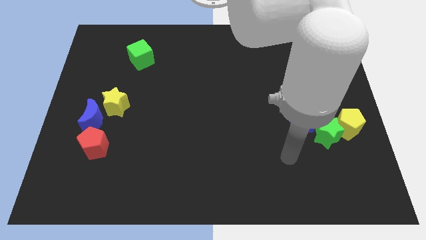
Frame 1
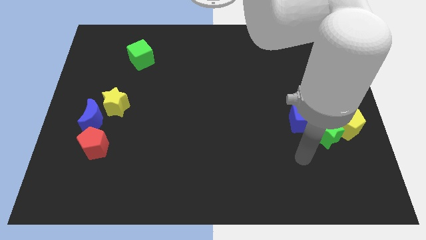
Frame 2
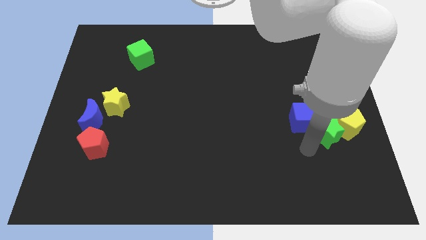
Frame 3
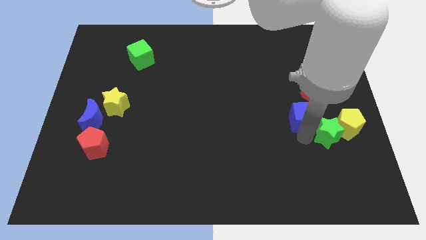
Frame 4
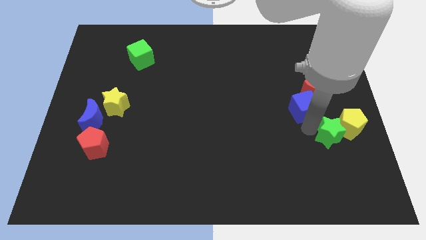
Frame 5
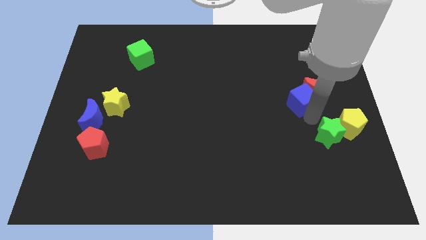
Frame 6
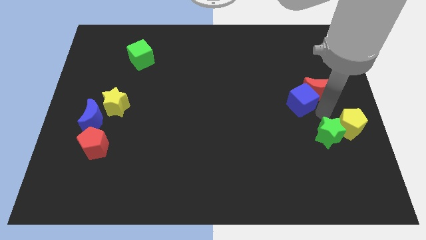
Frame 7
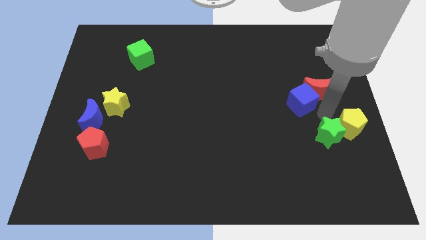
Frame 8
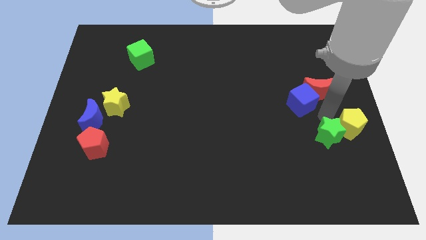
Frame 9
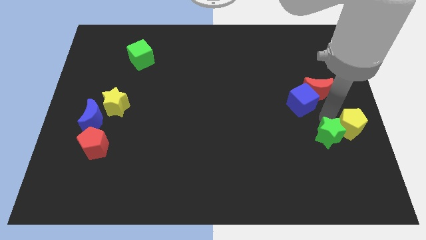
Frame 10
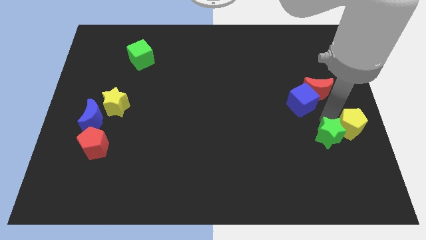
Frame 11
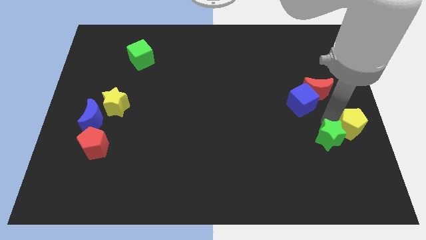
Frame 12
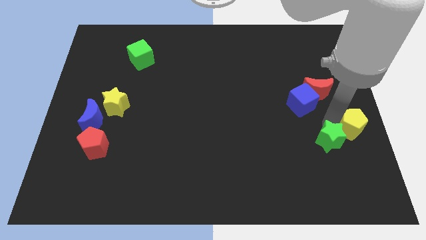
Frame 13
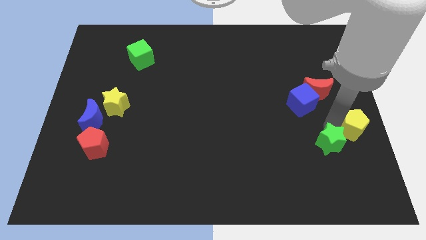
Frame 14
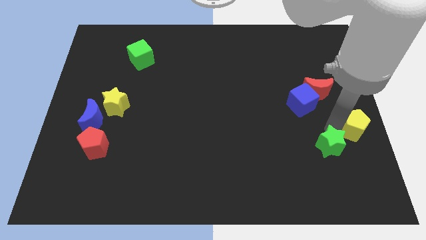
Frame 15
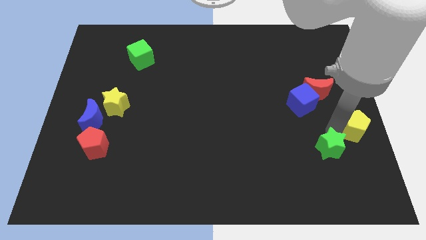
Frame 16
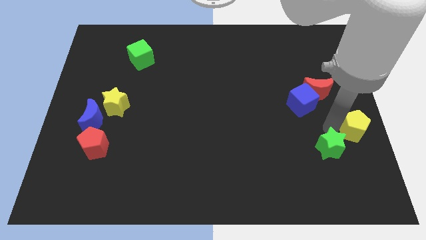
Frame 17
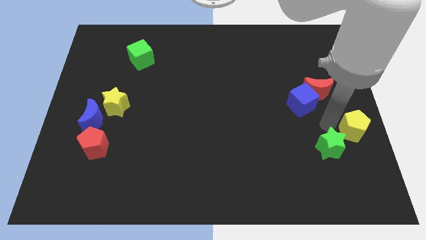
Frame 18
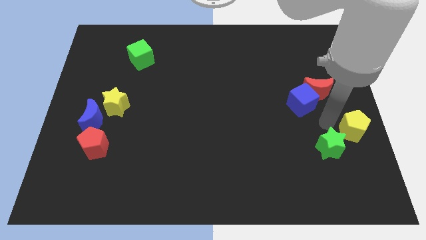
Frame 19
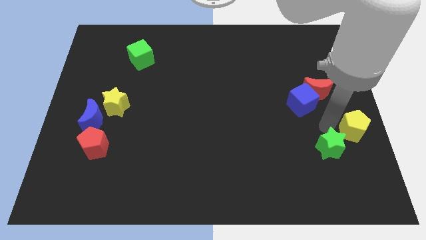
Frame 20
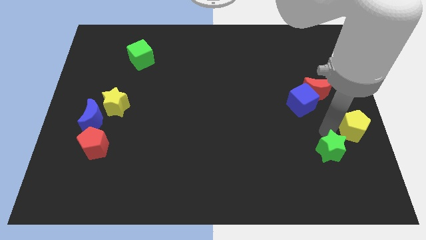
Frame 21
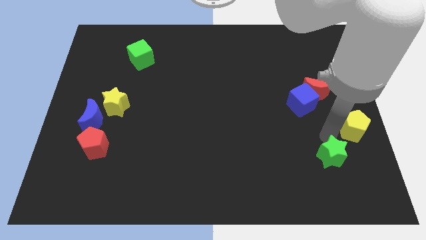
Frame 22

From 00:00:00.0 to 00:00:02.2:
pull the green star apart from the yellow pentagon and blue cube

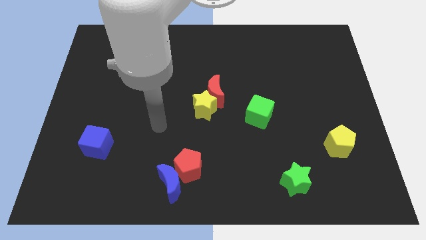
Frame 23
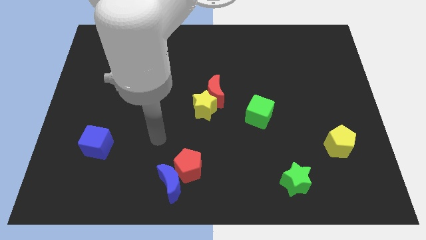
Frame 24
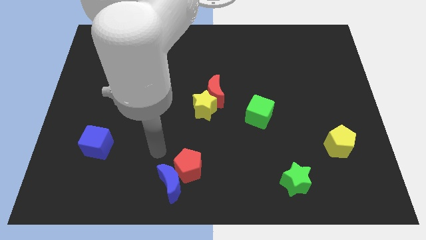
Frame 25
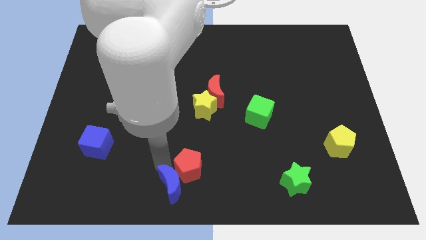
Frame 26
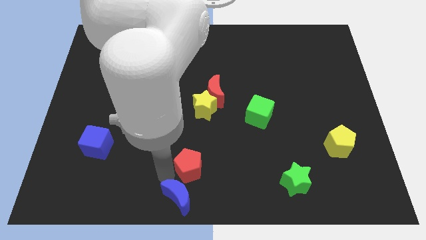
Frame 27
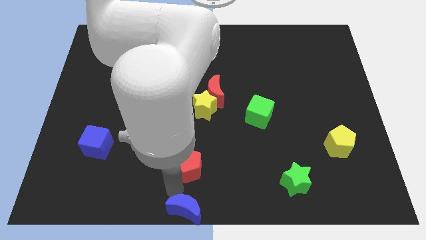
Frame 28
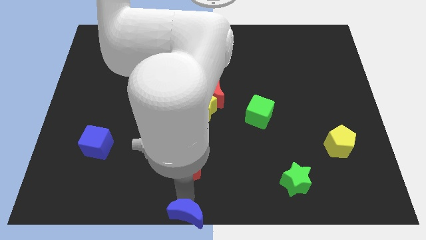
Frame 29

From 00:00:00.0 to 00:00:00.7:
pull the red pentagon apart from the blue moon

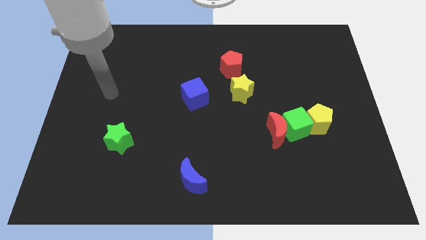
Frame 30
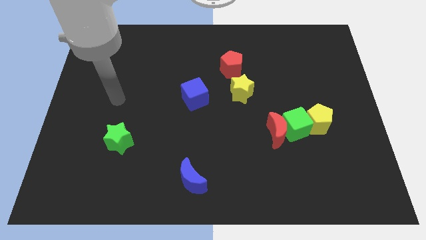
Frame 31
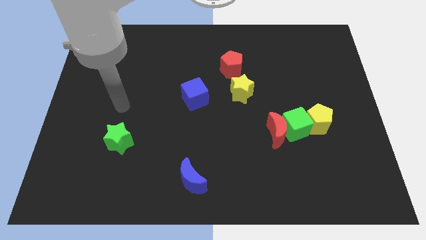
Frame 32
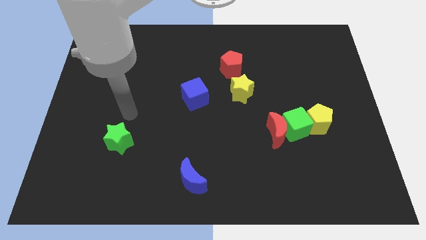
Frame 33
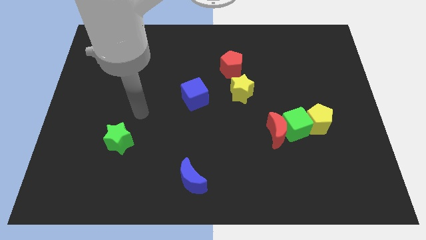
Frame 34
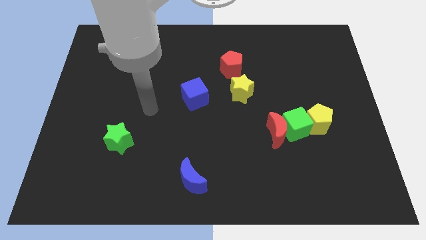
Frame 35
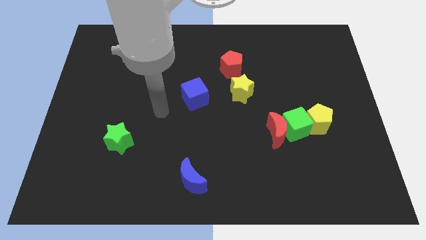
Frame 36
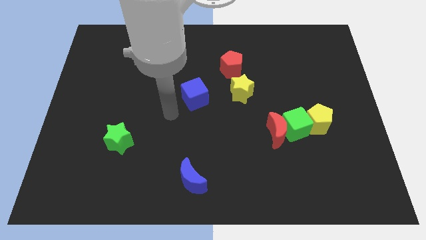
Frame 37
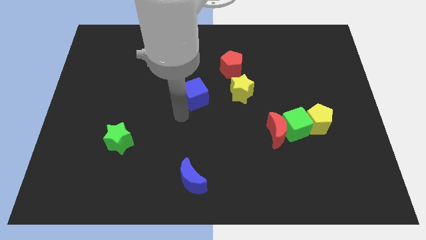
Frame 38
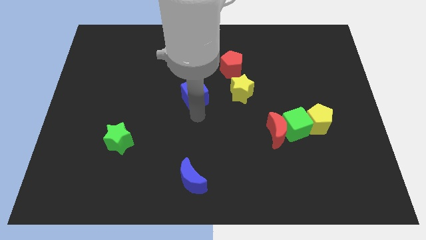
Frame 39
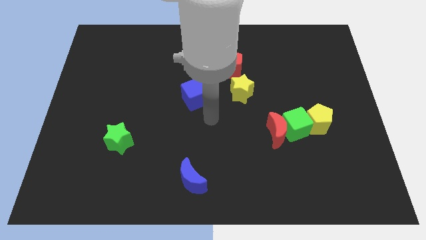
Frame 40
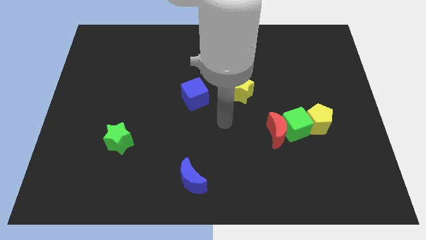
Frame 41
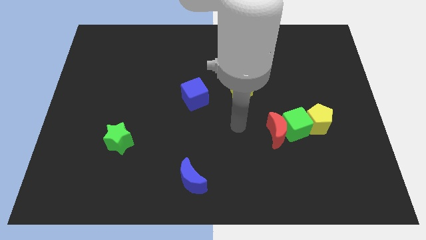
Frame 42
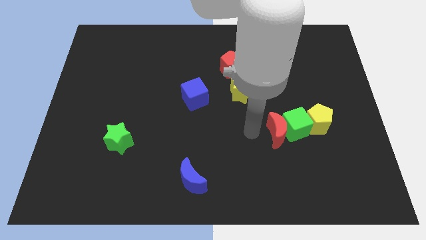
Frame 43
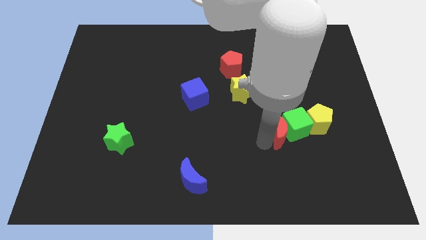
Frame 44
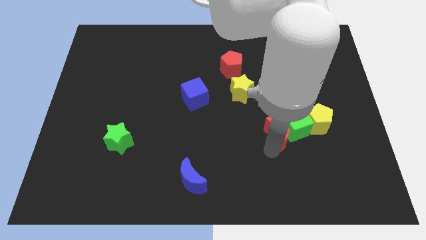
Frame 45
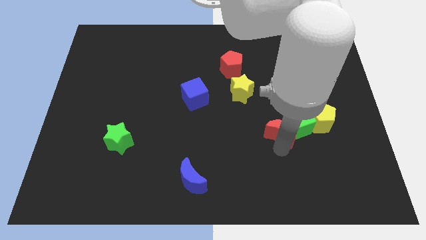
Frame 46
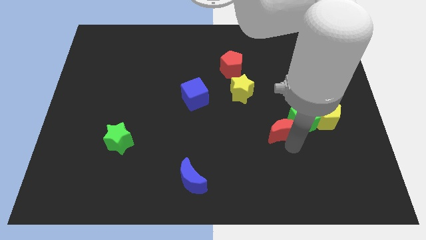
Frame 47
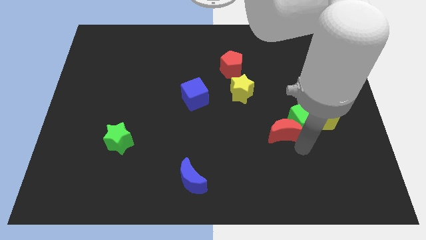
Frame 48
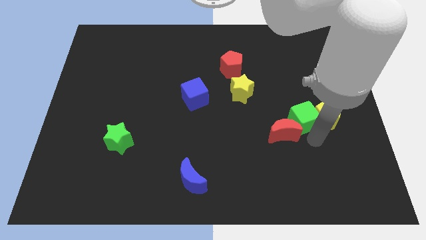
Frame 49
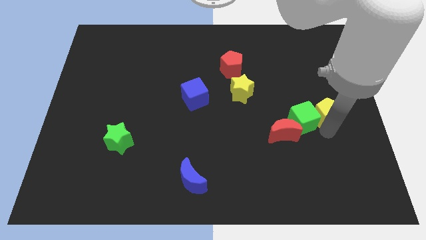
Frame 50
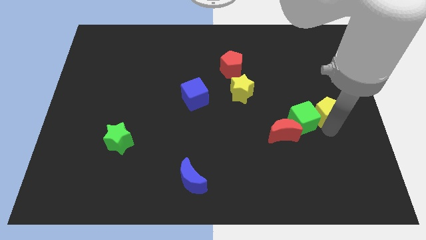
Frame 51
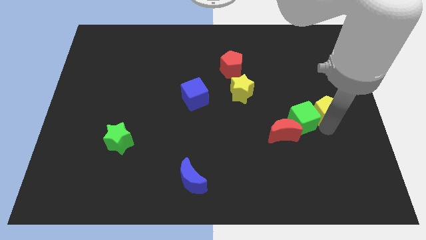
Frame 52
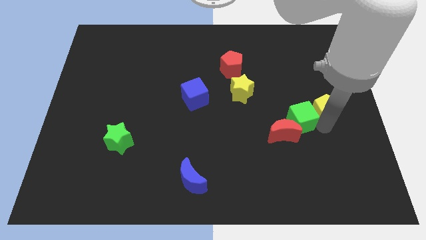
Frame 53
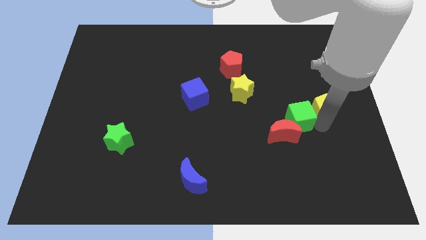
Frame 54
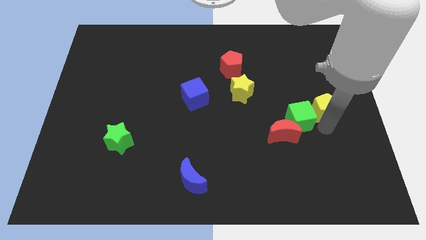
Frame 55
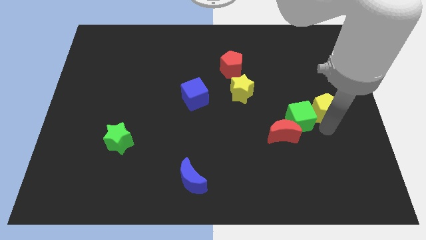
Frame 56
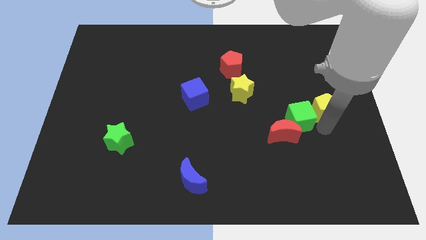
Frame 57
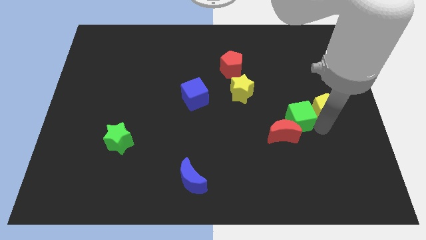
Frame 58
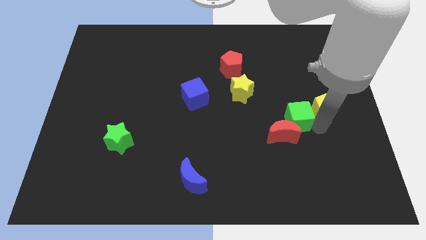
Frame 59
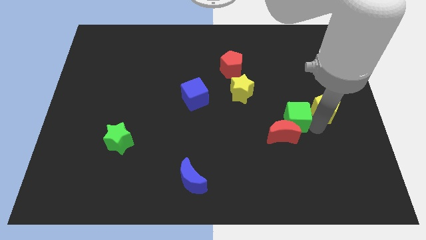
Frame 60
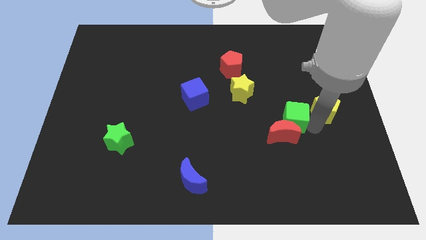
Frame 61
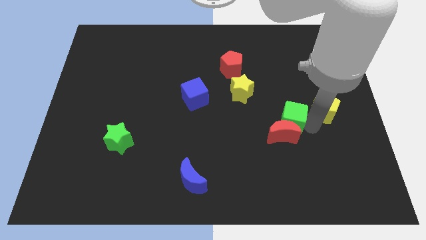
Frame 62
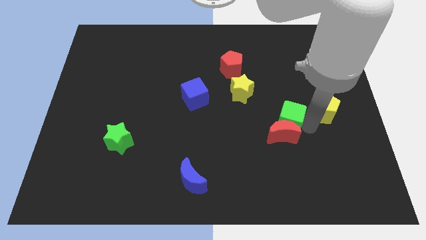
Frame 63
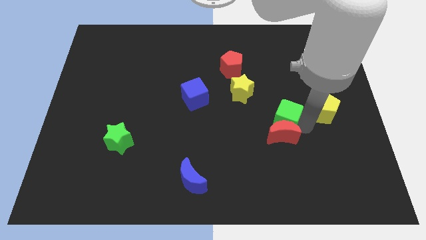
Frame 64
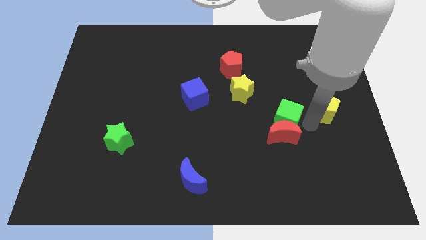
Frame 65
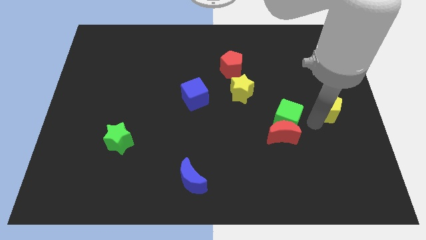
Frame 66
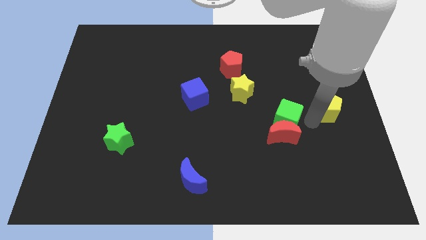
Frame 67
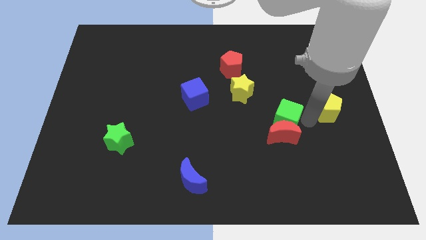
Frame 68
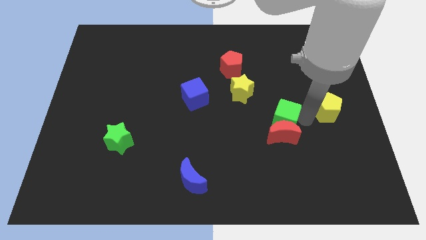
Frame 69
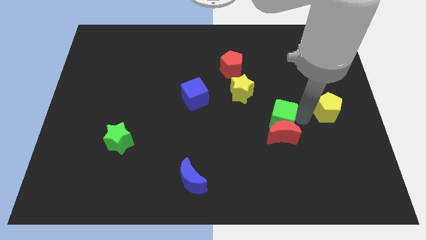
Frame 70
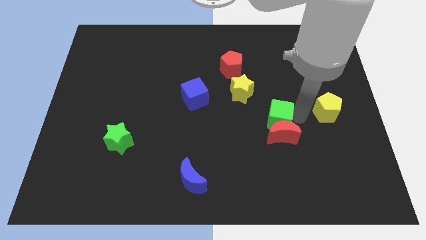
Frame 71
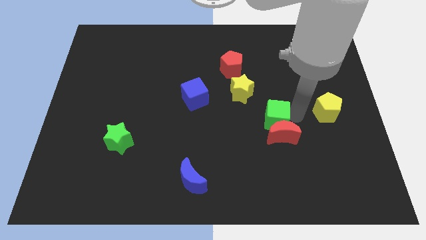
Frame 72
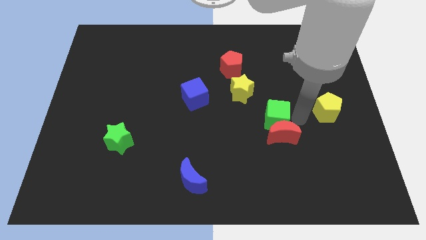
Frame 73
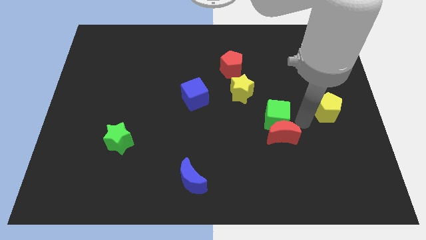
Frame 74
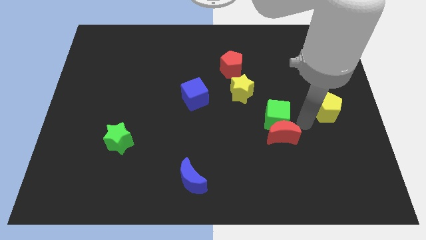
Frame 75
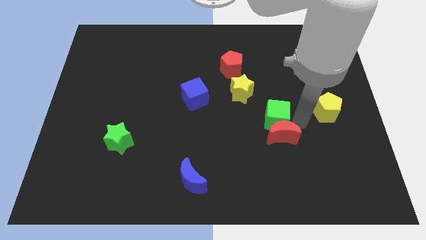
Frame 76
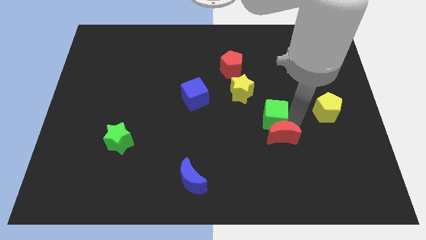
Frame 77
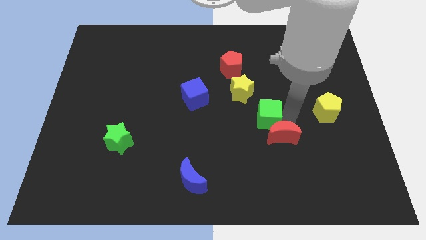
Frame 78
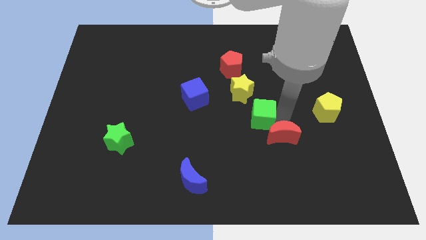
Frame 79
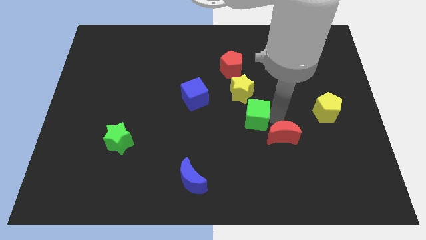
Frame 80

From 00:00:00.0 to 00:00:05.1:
move the green cube away from the red moon and yellow pentagon

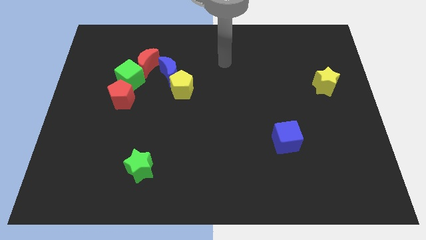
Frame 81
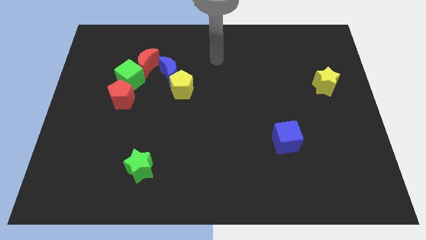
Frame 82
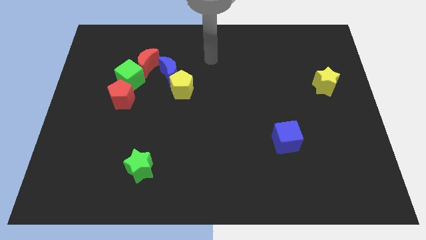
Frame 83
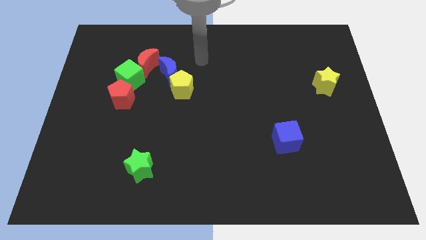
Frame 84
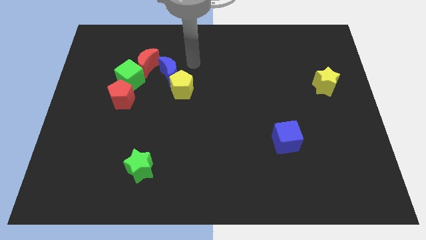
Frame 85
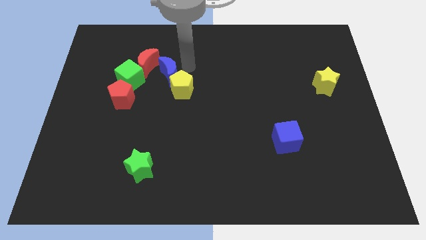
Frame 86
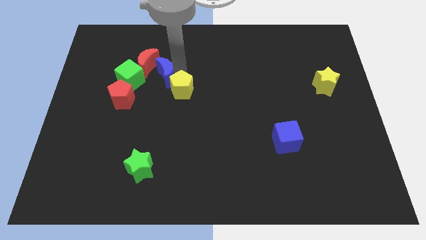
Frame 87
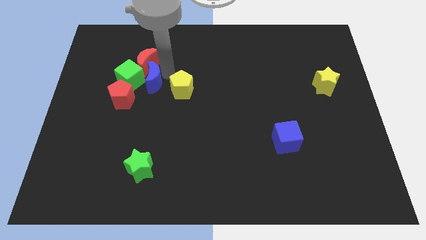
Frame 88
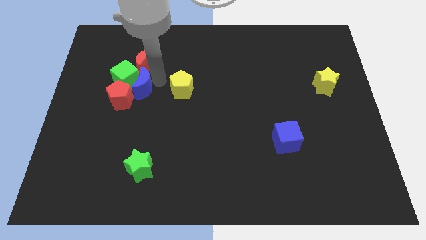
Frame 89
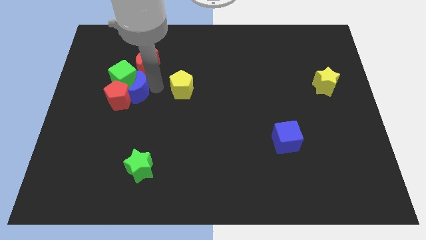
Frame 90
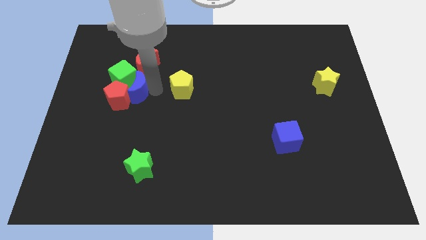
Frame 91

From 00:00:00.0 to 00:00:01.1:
move the yellow pentagon away from the blue moon

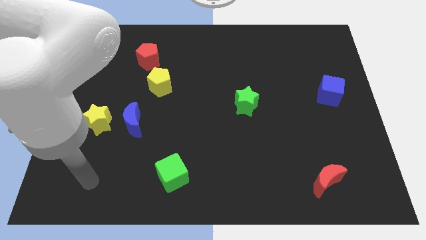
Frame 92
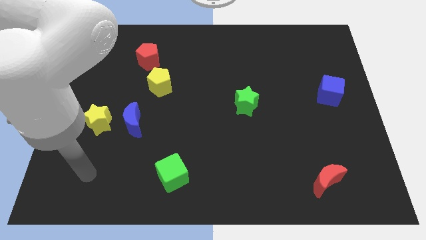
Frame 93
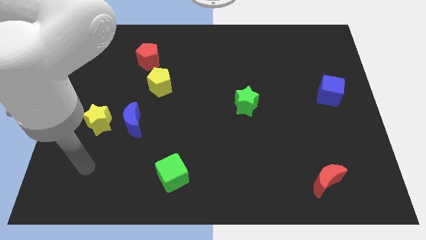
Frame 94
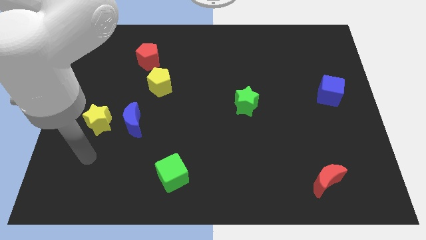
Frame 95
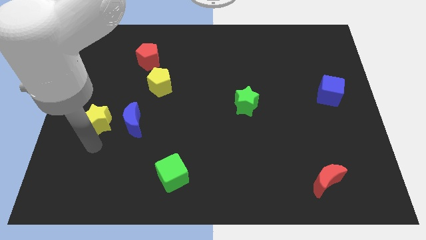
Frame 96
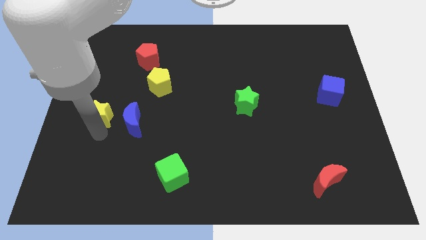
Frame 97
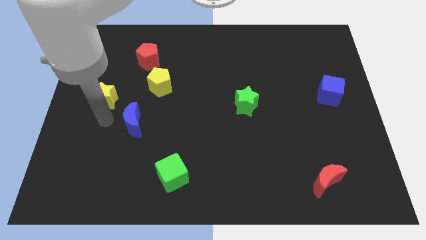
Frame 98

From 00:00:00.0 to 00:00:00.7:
separate the blue moon from the yellow star
